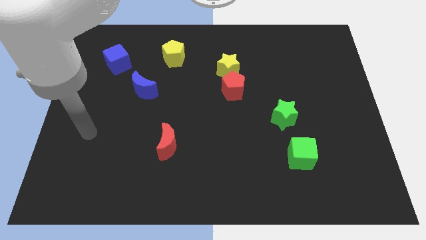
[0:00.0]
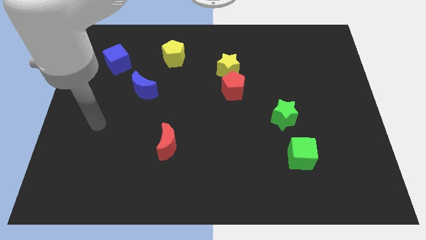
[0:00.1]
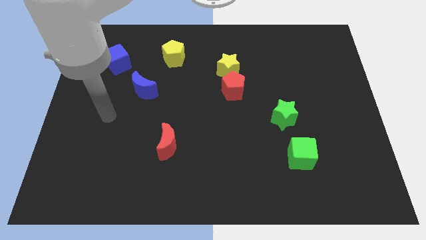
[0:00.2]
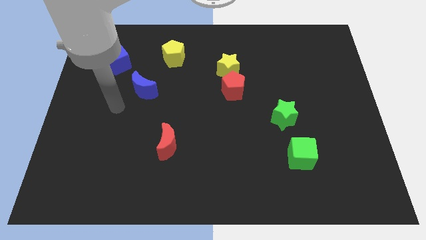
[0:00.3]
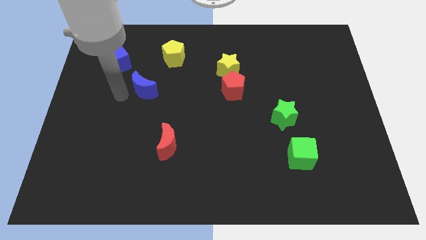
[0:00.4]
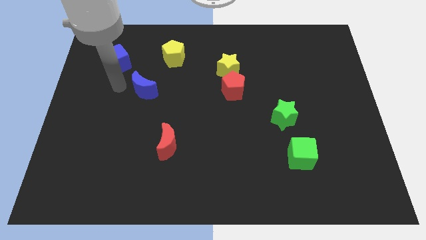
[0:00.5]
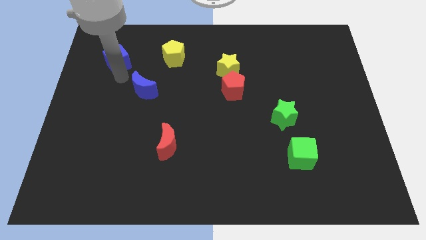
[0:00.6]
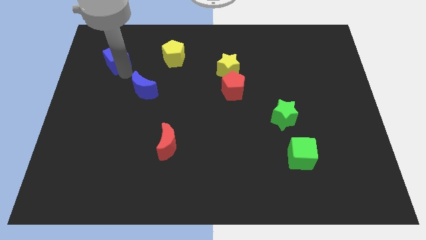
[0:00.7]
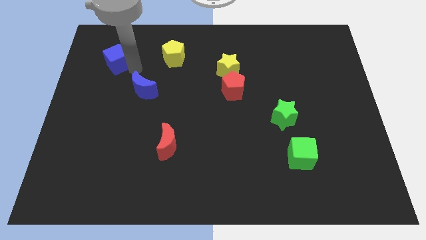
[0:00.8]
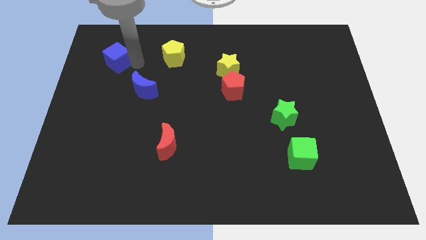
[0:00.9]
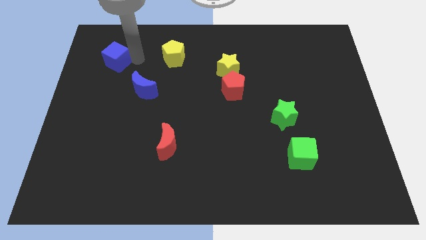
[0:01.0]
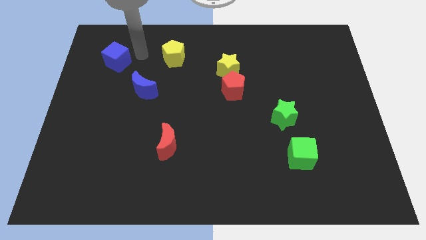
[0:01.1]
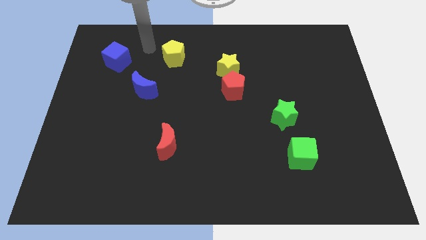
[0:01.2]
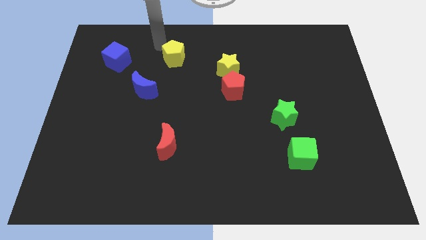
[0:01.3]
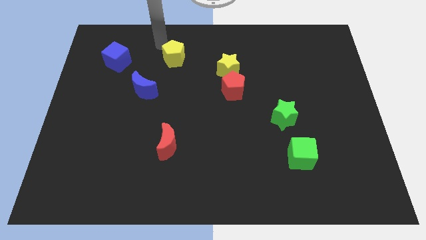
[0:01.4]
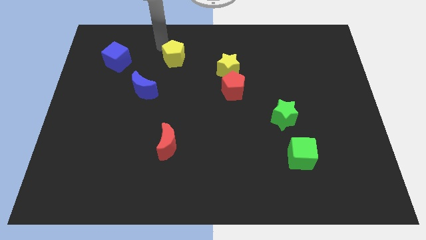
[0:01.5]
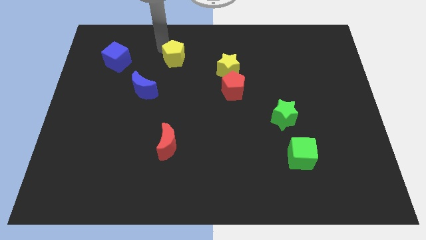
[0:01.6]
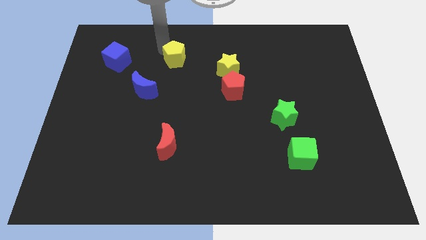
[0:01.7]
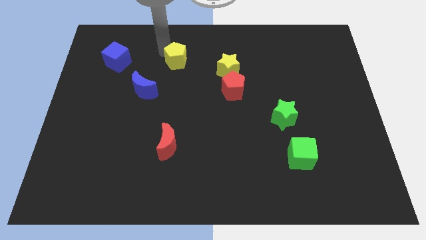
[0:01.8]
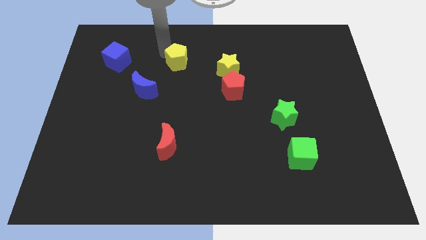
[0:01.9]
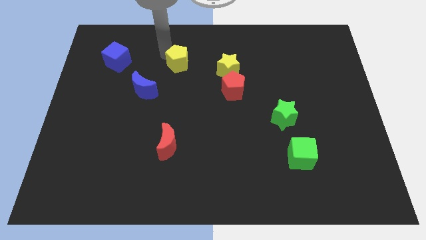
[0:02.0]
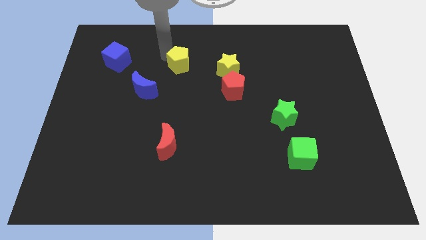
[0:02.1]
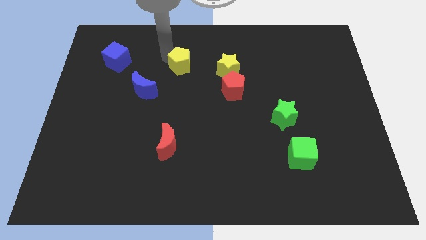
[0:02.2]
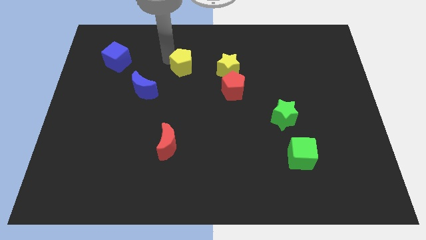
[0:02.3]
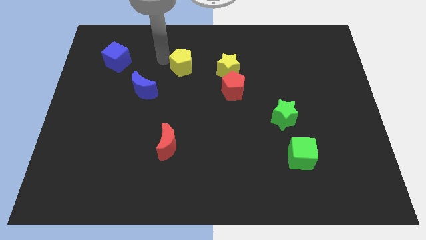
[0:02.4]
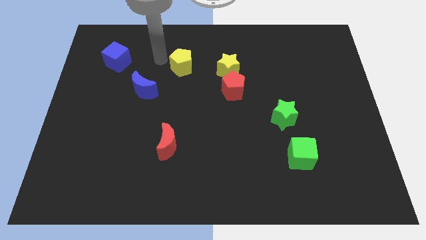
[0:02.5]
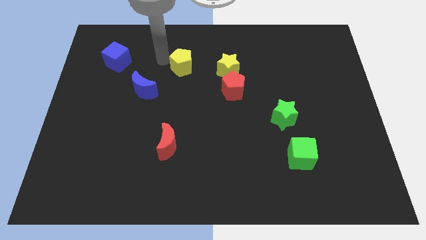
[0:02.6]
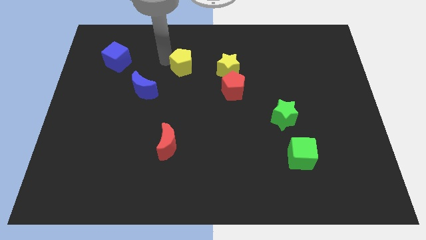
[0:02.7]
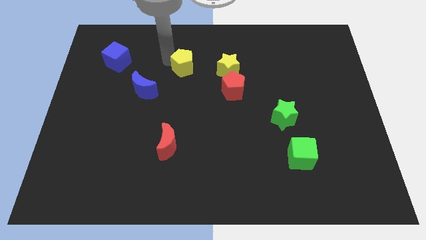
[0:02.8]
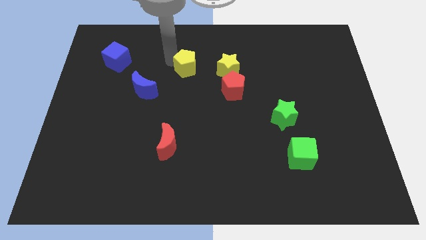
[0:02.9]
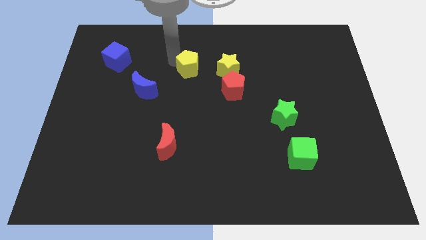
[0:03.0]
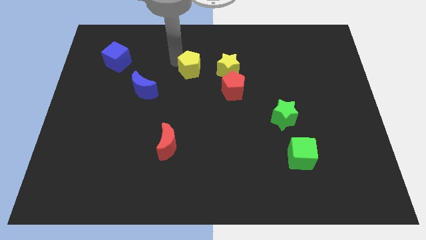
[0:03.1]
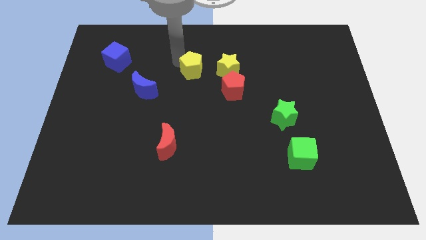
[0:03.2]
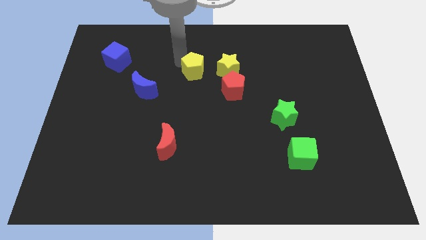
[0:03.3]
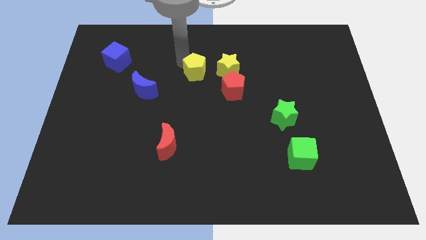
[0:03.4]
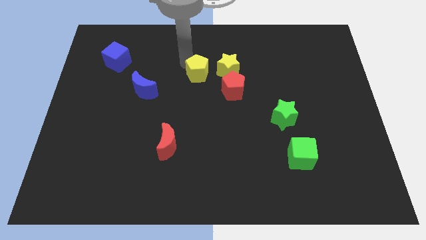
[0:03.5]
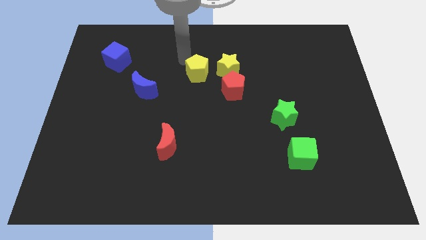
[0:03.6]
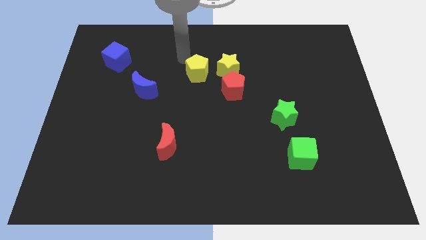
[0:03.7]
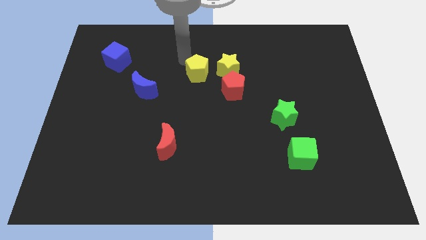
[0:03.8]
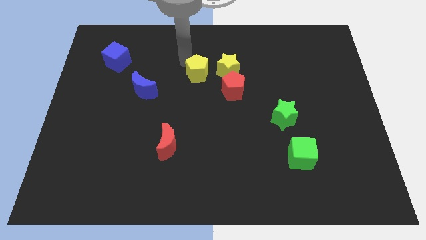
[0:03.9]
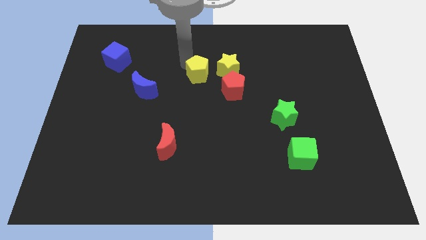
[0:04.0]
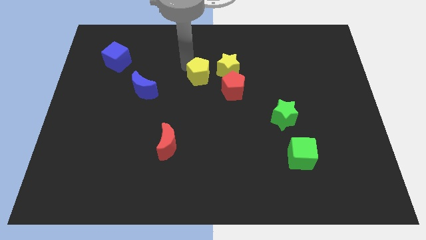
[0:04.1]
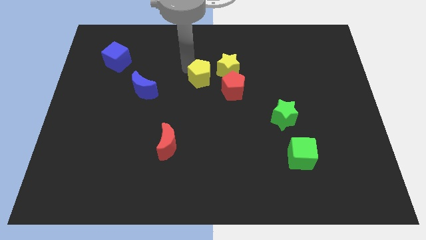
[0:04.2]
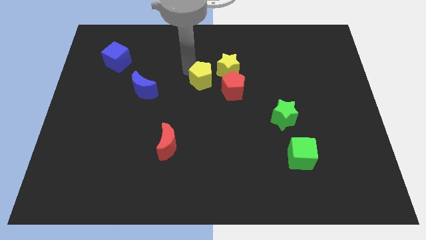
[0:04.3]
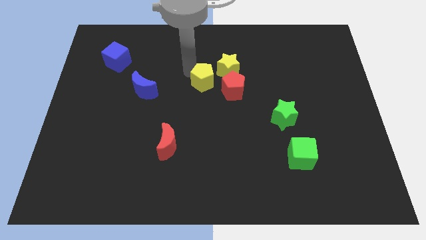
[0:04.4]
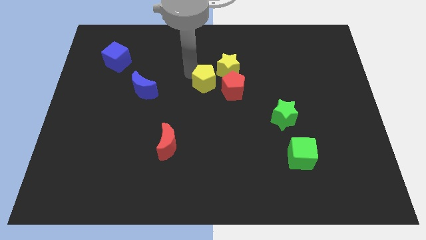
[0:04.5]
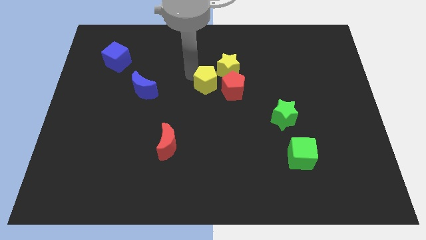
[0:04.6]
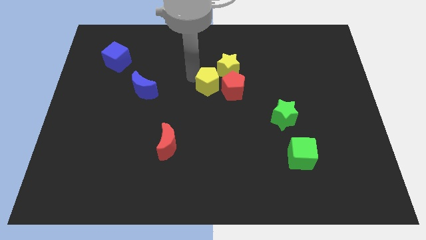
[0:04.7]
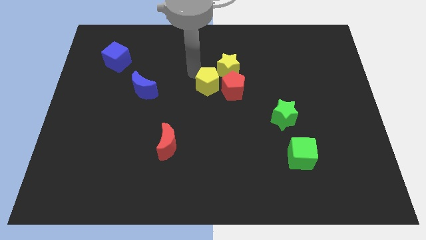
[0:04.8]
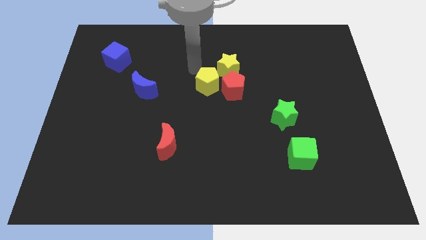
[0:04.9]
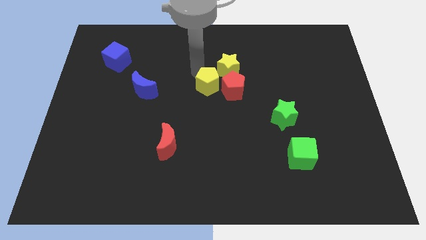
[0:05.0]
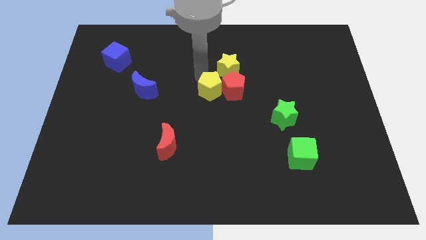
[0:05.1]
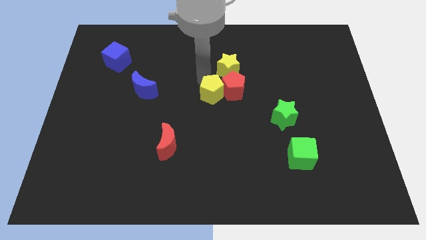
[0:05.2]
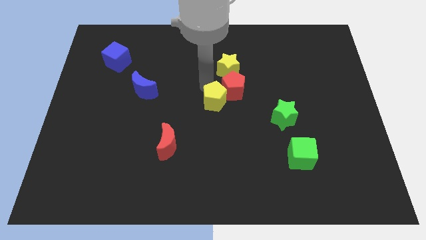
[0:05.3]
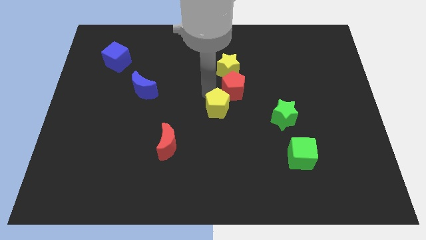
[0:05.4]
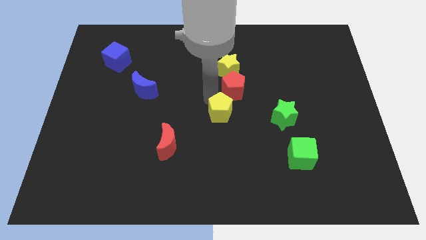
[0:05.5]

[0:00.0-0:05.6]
push the yellow pentagon downwards and to the right

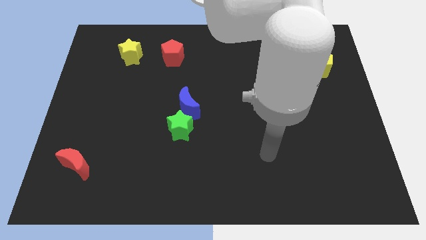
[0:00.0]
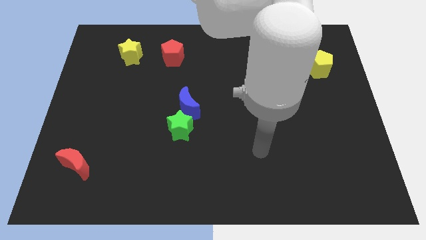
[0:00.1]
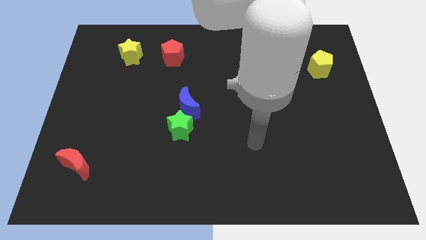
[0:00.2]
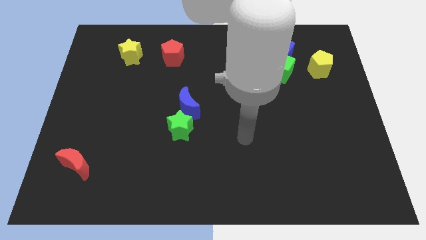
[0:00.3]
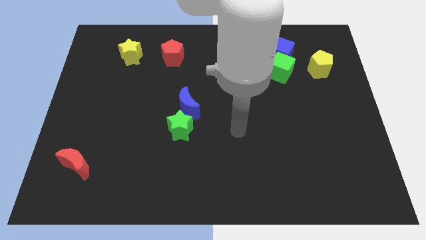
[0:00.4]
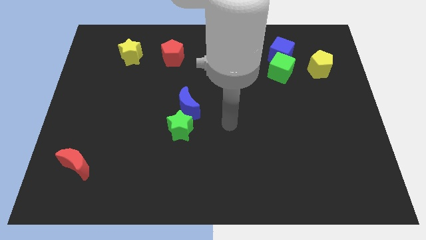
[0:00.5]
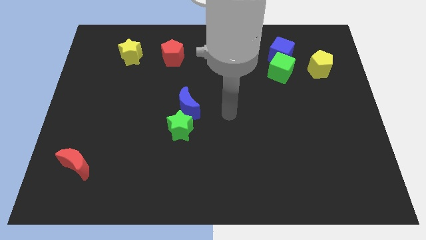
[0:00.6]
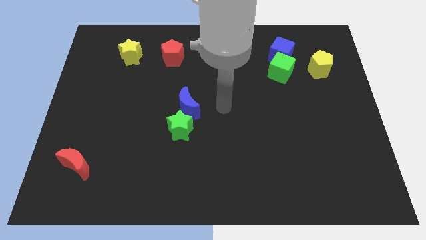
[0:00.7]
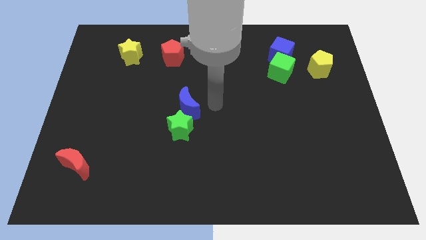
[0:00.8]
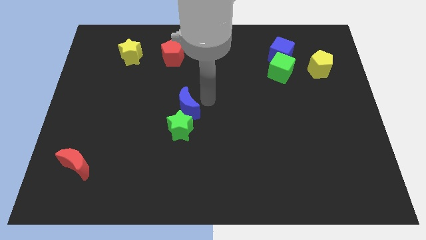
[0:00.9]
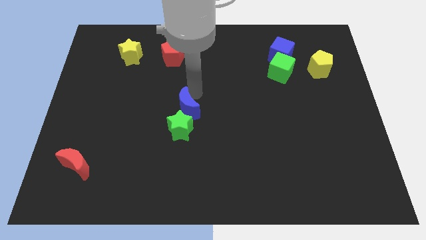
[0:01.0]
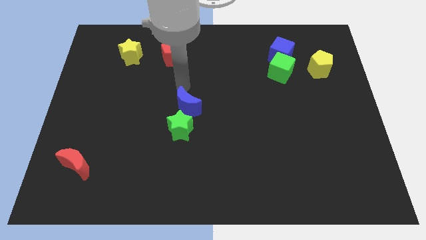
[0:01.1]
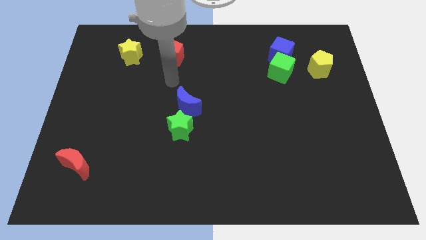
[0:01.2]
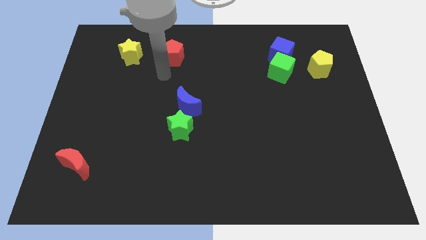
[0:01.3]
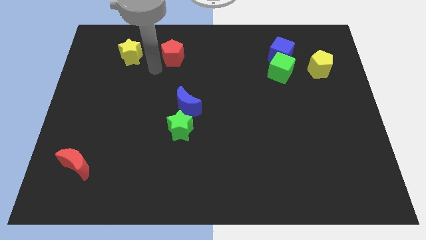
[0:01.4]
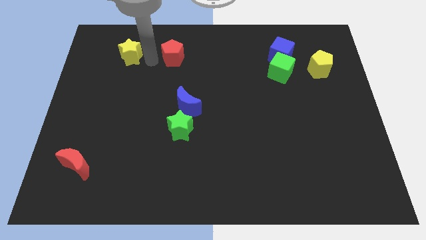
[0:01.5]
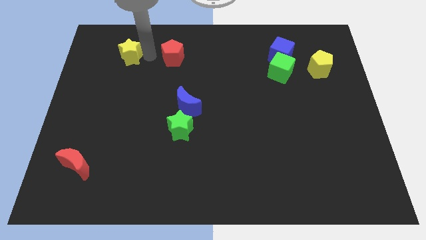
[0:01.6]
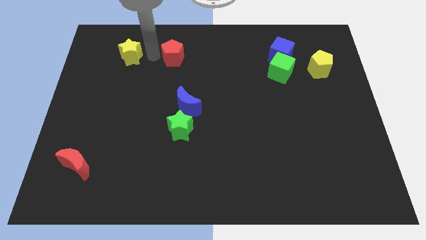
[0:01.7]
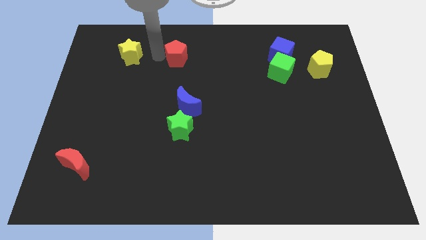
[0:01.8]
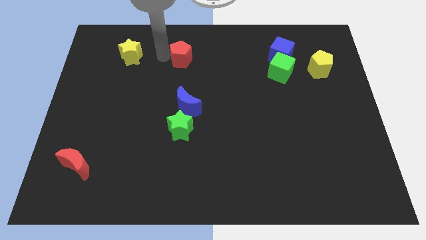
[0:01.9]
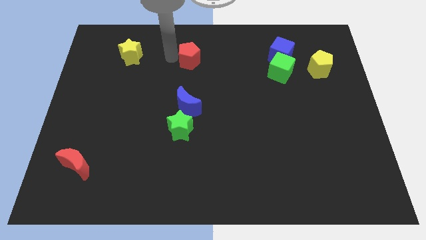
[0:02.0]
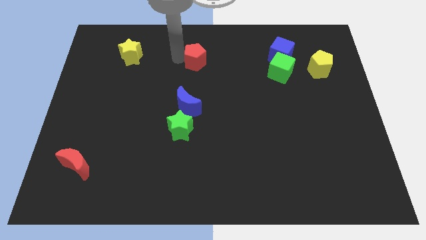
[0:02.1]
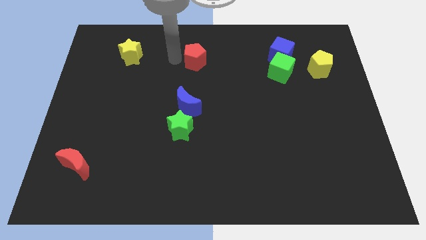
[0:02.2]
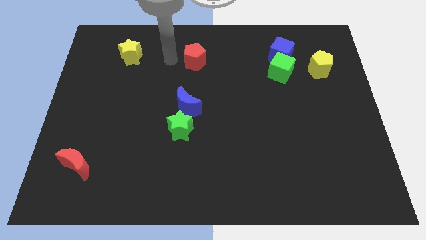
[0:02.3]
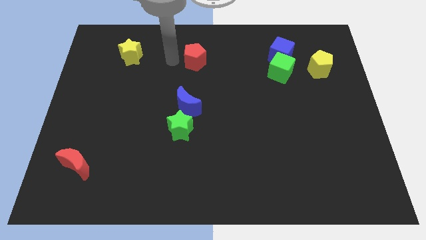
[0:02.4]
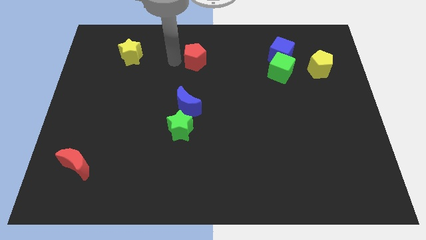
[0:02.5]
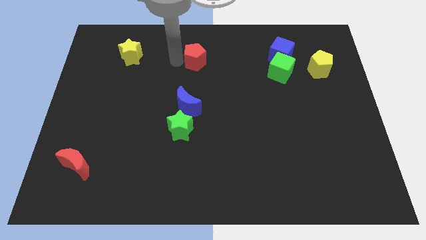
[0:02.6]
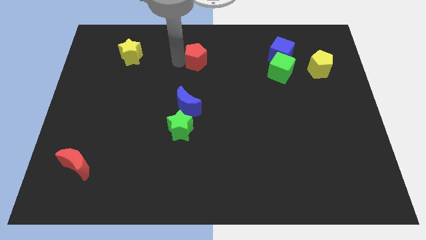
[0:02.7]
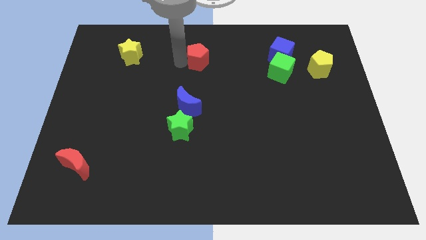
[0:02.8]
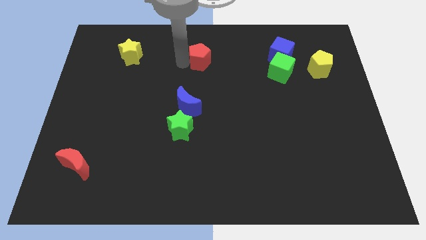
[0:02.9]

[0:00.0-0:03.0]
push the red pentagon a little to the right
